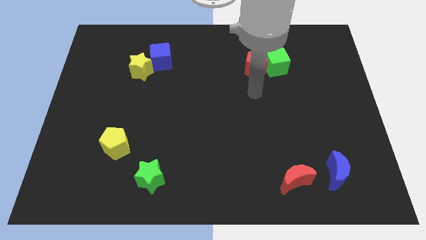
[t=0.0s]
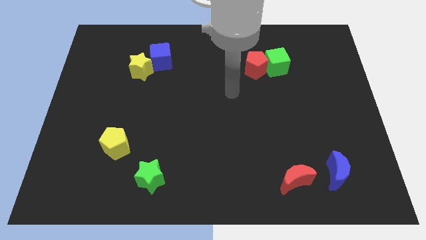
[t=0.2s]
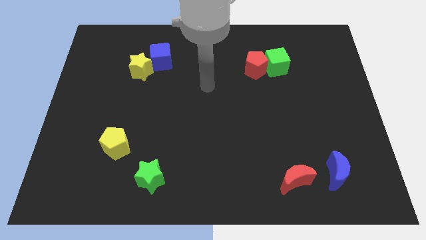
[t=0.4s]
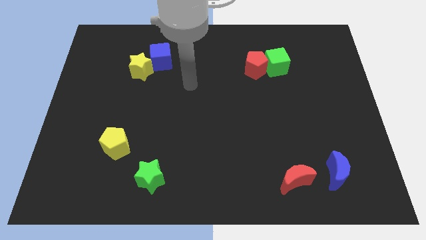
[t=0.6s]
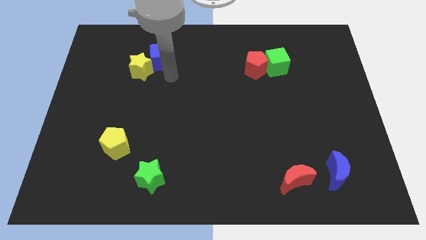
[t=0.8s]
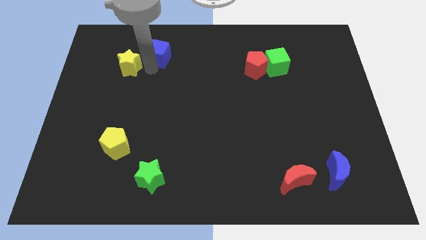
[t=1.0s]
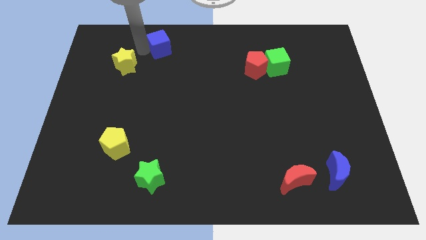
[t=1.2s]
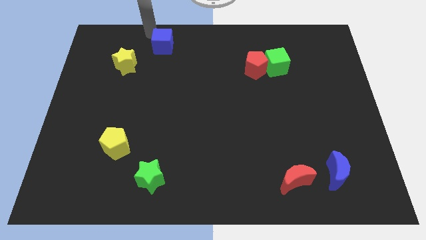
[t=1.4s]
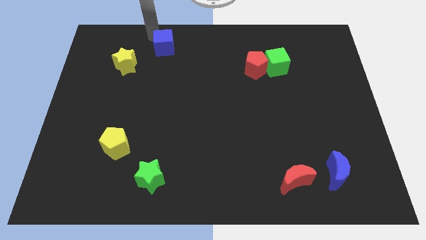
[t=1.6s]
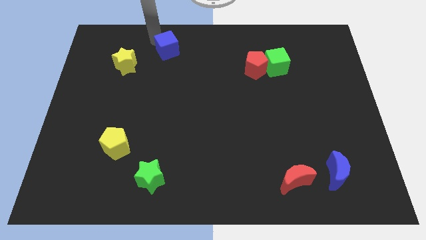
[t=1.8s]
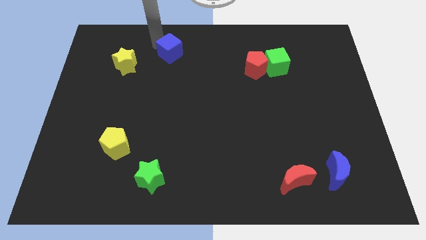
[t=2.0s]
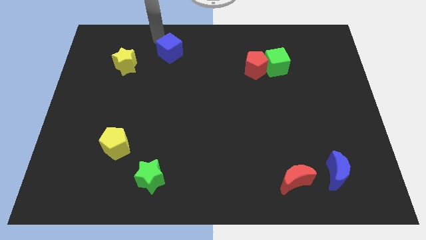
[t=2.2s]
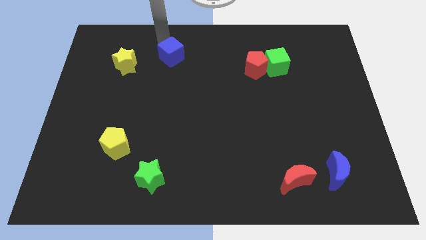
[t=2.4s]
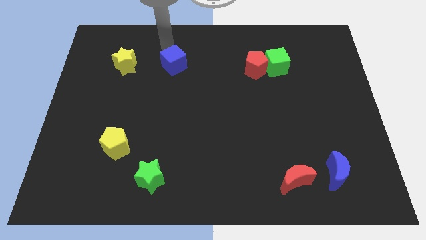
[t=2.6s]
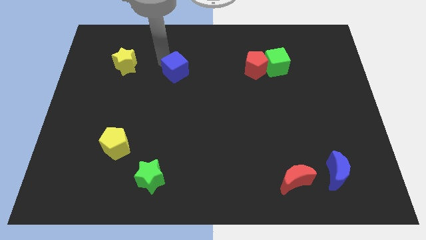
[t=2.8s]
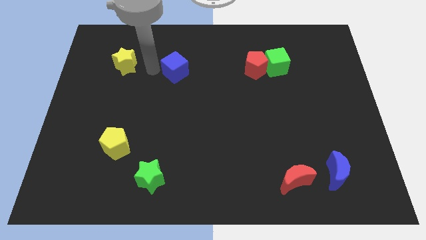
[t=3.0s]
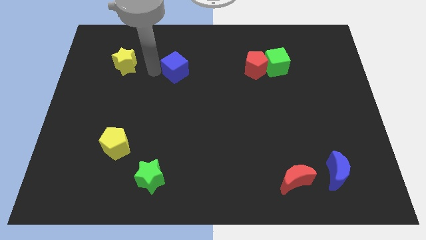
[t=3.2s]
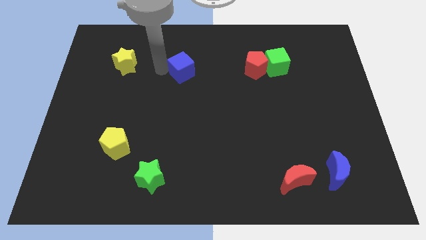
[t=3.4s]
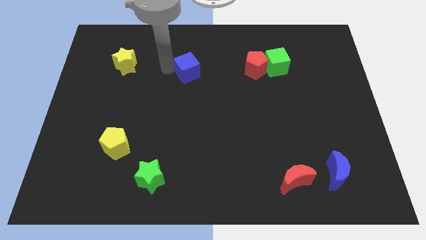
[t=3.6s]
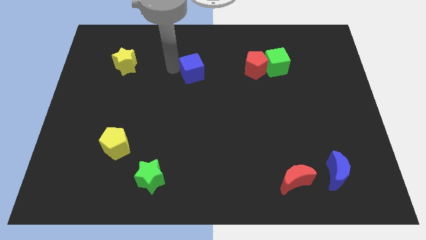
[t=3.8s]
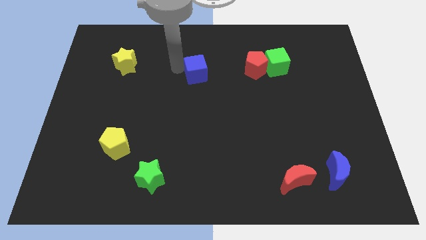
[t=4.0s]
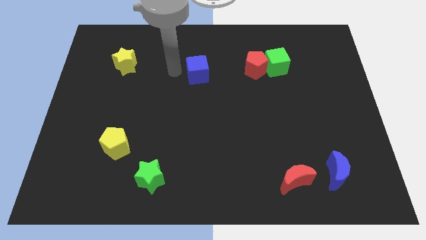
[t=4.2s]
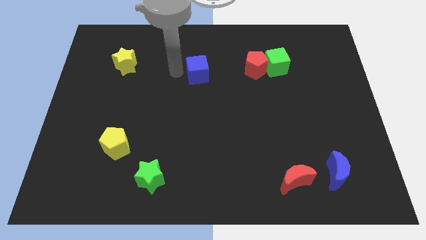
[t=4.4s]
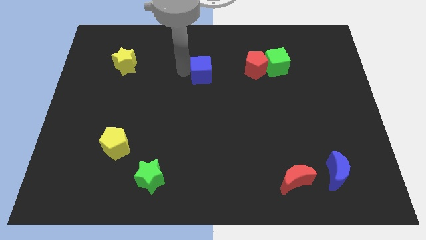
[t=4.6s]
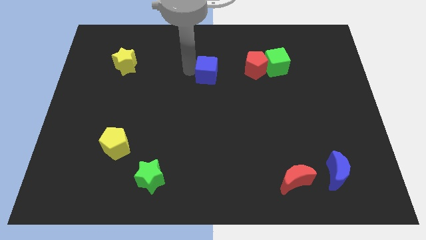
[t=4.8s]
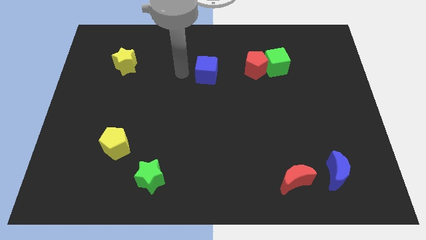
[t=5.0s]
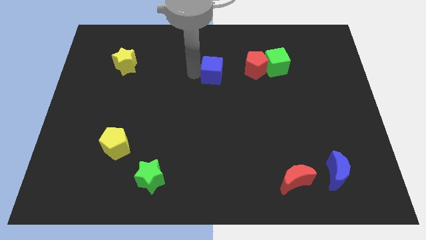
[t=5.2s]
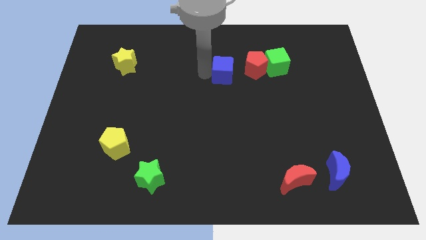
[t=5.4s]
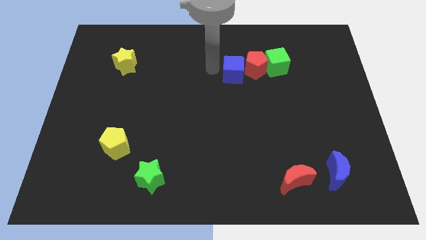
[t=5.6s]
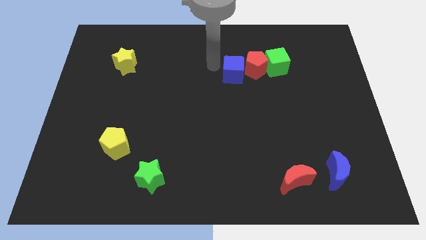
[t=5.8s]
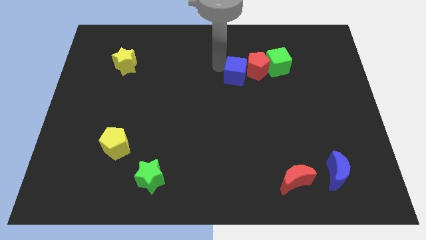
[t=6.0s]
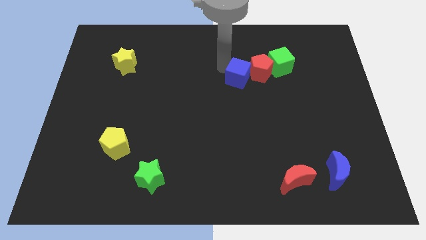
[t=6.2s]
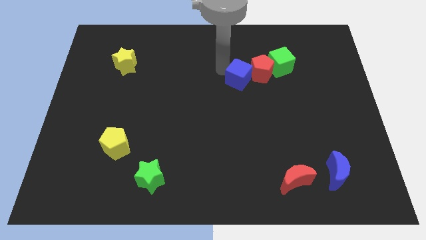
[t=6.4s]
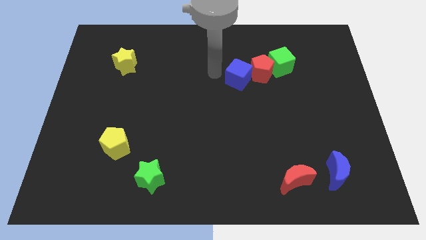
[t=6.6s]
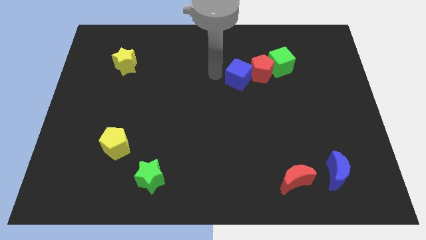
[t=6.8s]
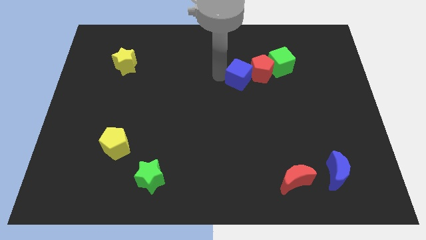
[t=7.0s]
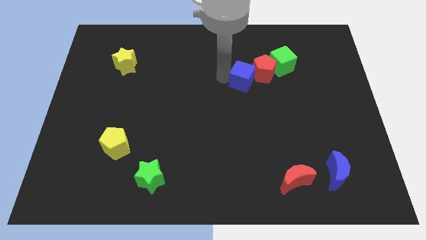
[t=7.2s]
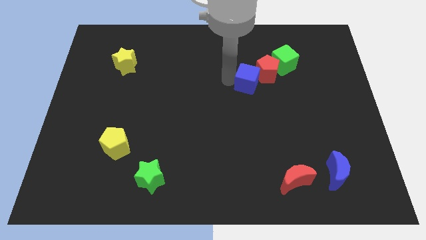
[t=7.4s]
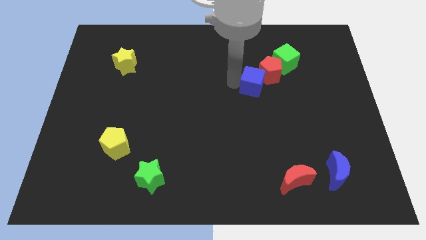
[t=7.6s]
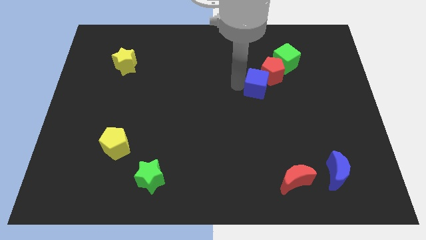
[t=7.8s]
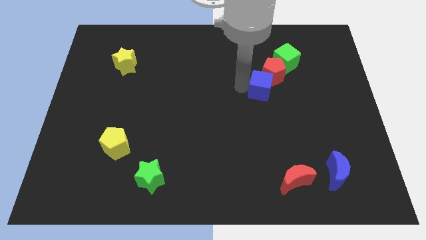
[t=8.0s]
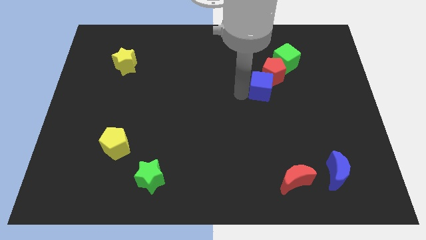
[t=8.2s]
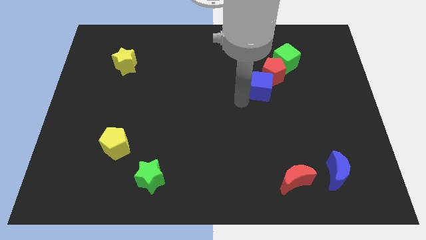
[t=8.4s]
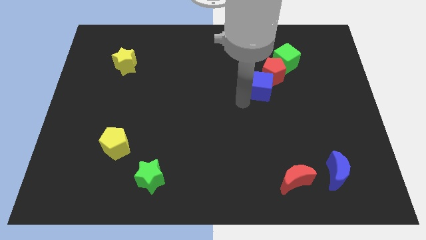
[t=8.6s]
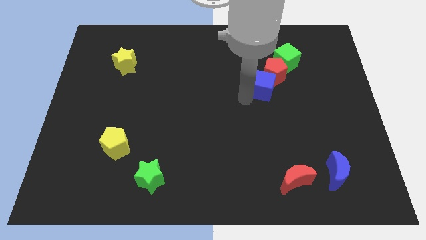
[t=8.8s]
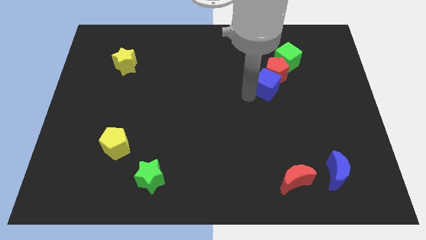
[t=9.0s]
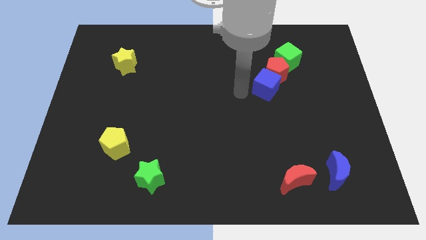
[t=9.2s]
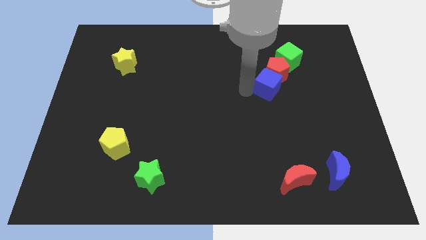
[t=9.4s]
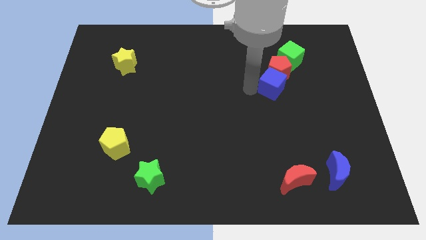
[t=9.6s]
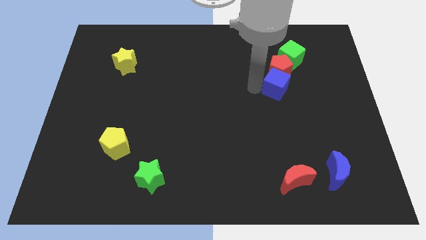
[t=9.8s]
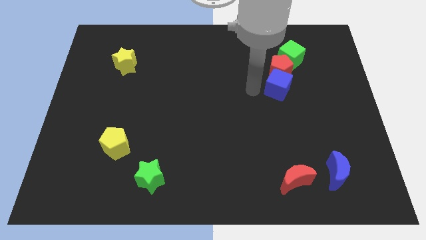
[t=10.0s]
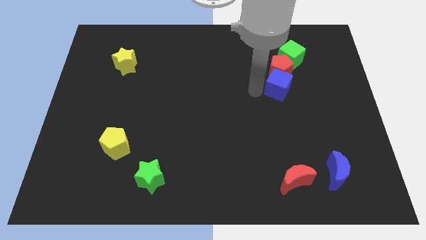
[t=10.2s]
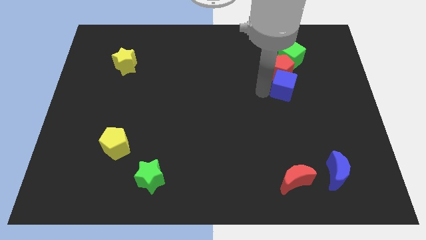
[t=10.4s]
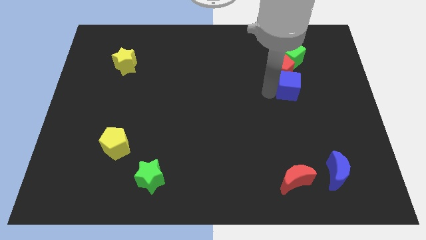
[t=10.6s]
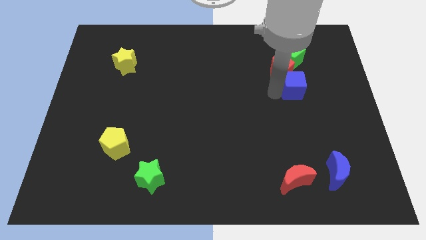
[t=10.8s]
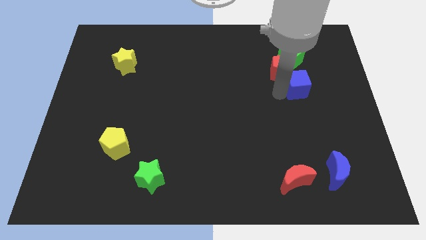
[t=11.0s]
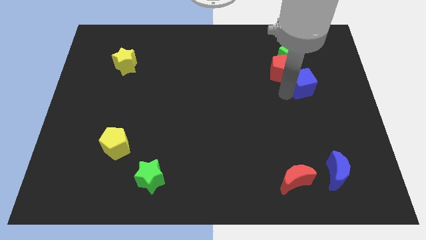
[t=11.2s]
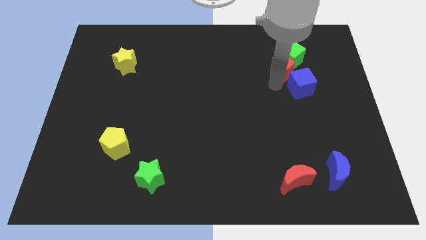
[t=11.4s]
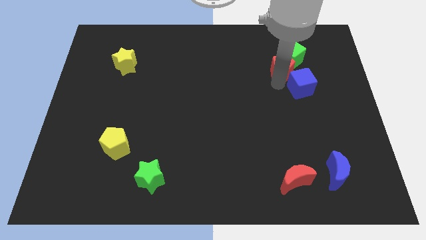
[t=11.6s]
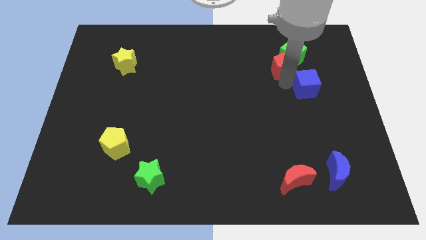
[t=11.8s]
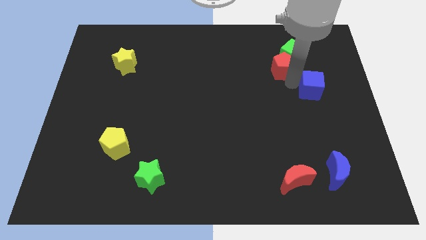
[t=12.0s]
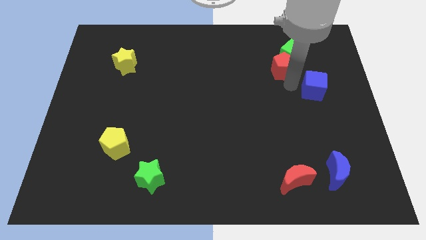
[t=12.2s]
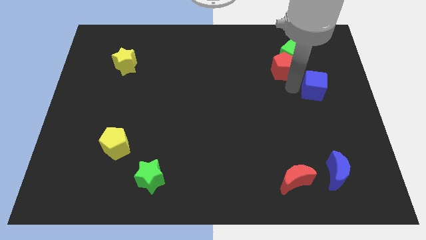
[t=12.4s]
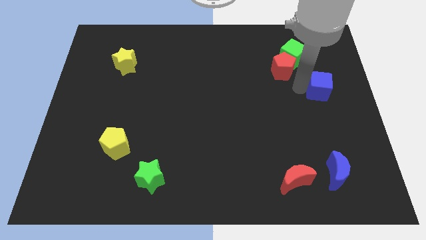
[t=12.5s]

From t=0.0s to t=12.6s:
move the blue cube to the right side
